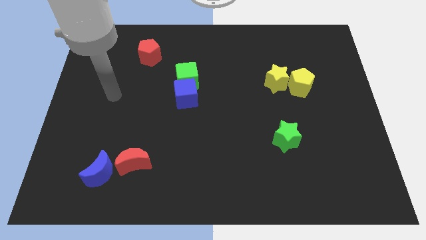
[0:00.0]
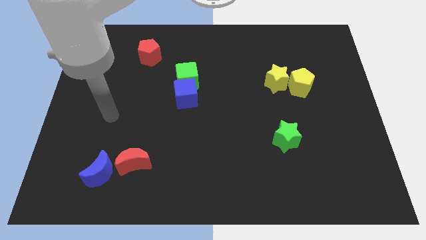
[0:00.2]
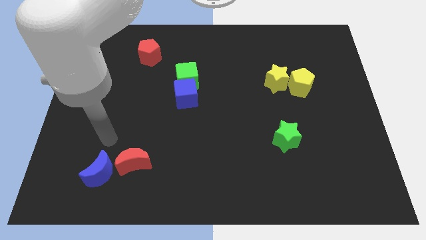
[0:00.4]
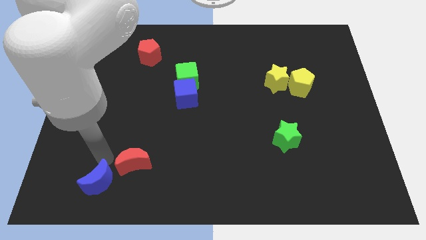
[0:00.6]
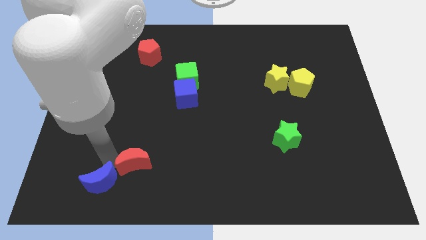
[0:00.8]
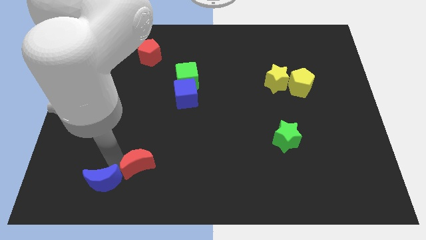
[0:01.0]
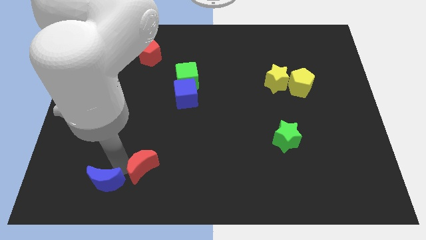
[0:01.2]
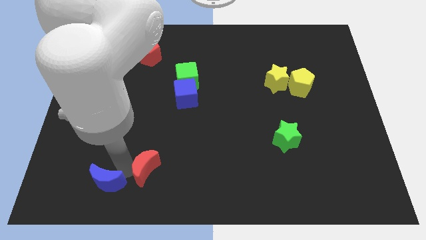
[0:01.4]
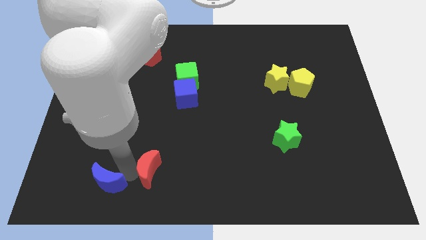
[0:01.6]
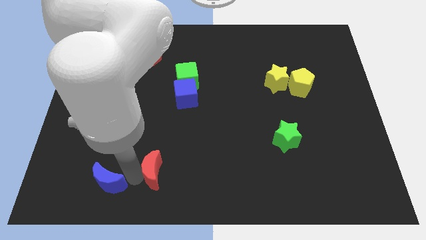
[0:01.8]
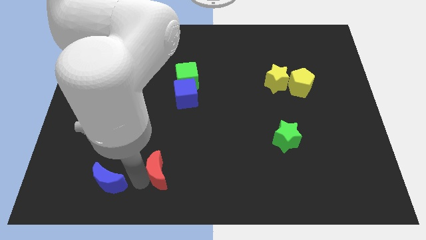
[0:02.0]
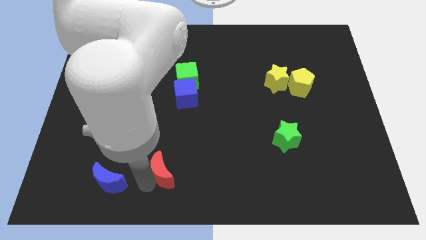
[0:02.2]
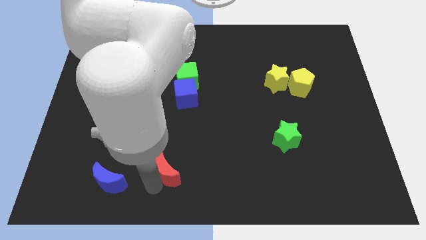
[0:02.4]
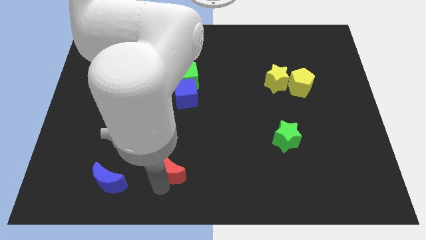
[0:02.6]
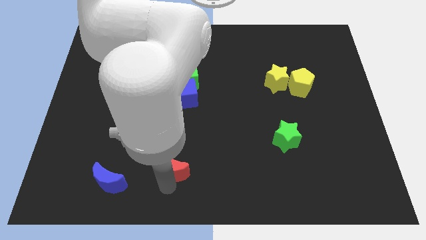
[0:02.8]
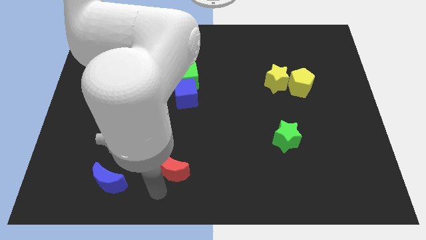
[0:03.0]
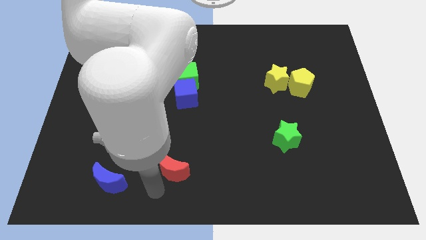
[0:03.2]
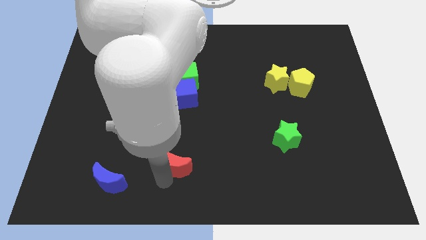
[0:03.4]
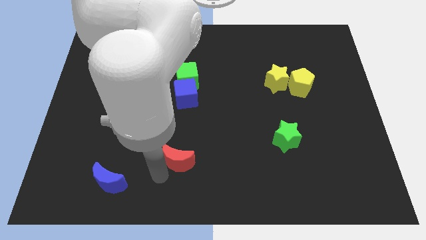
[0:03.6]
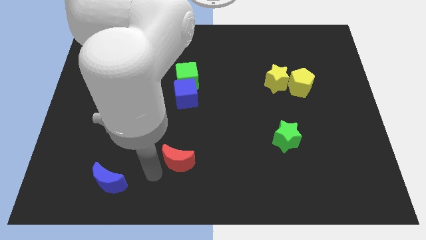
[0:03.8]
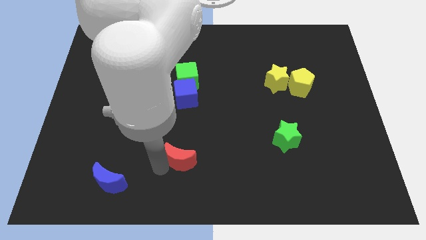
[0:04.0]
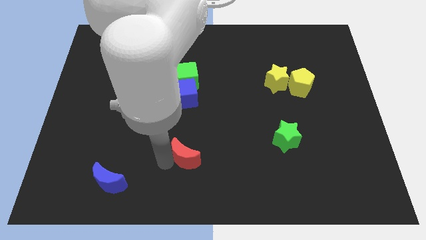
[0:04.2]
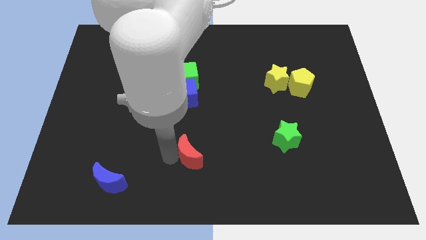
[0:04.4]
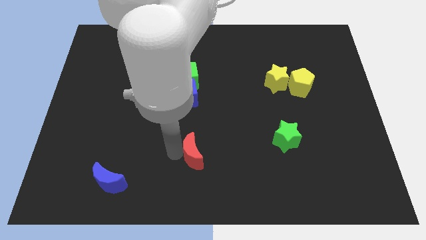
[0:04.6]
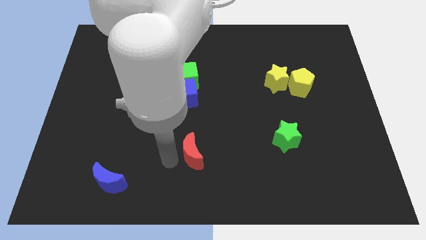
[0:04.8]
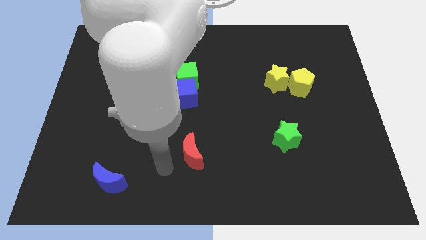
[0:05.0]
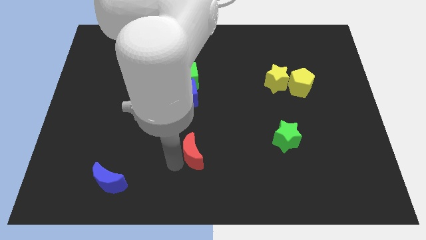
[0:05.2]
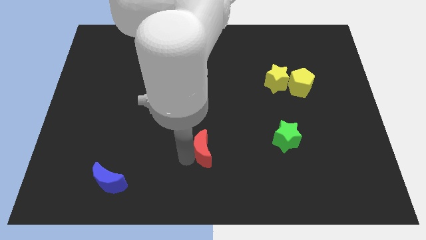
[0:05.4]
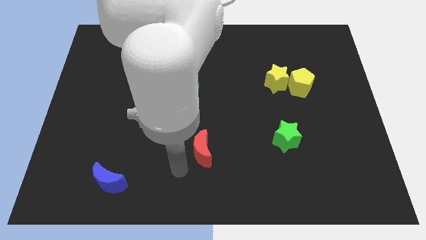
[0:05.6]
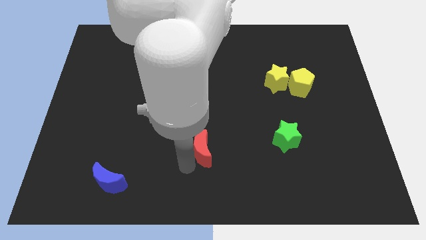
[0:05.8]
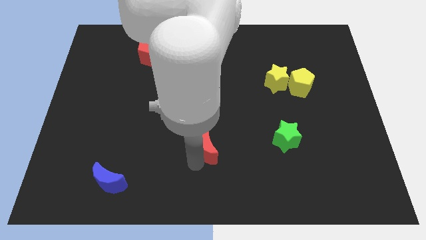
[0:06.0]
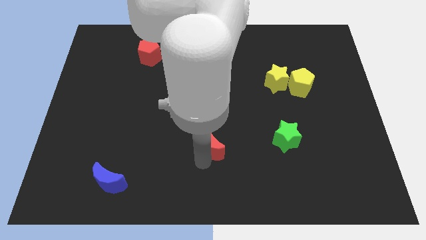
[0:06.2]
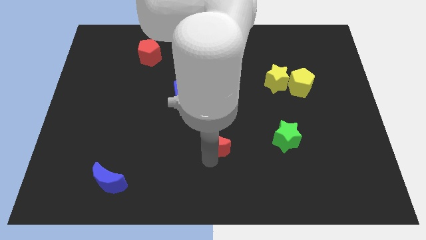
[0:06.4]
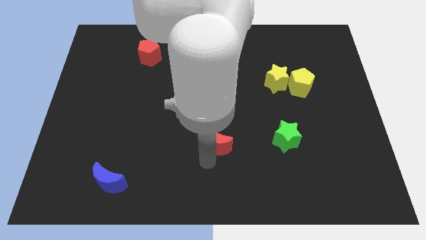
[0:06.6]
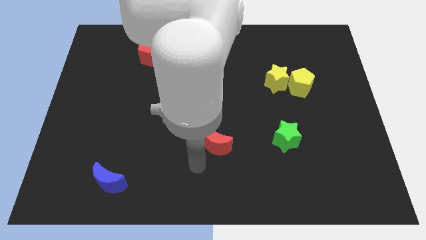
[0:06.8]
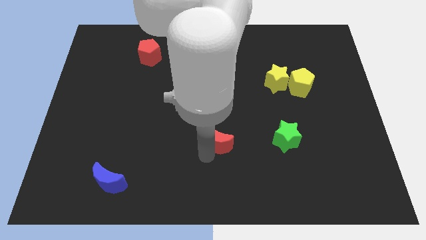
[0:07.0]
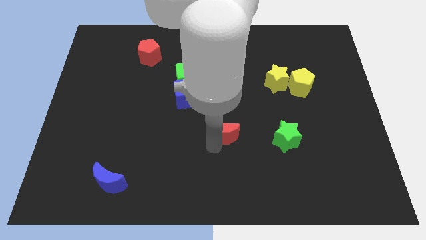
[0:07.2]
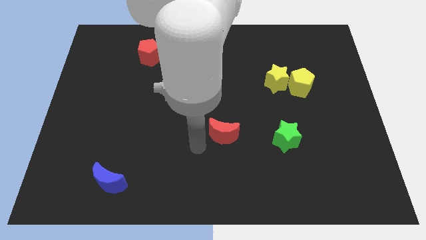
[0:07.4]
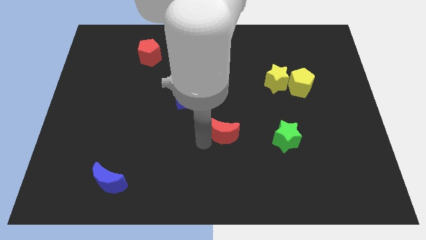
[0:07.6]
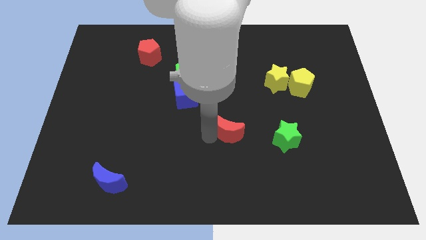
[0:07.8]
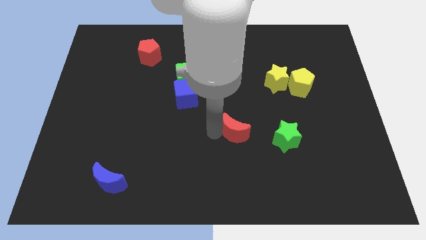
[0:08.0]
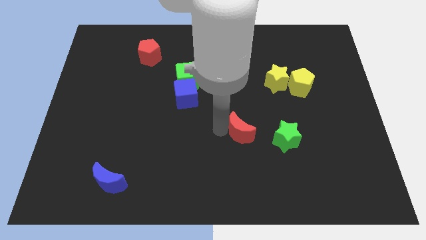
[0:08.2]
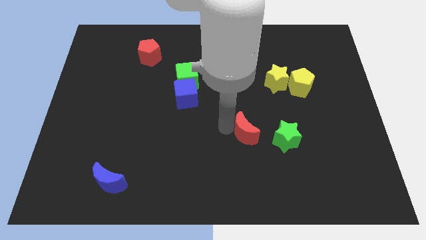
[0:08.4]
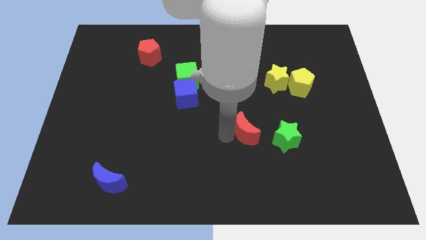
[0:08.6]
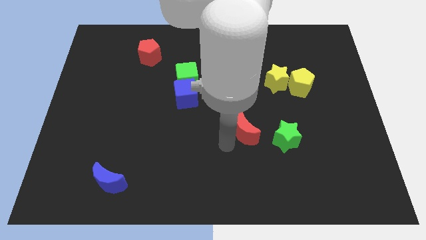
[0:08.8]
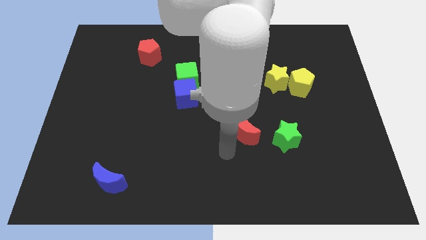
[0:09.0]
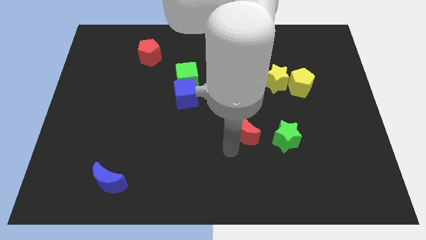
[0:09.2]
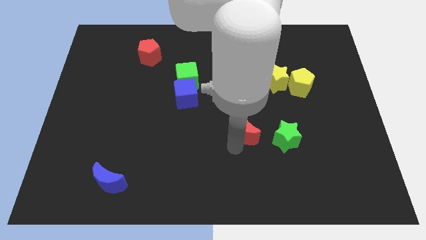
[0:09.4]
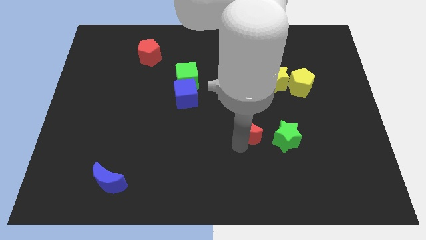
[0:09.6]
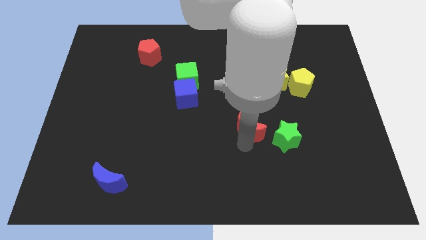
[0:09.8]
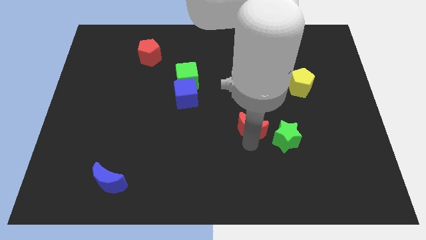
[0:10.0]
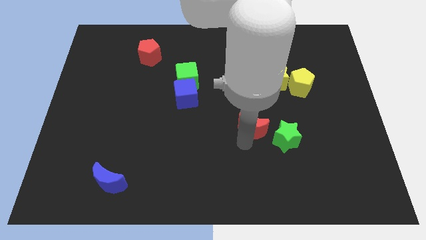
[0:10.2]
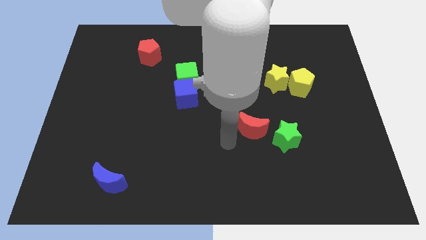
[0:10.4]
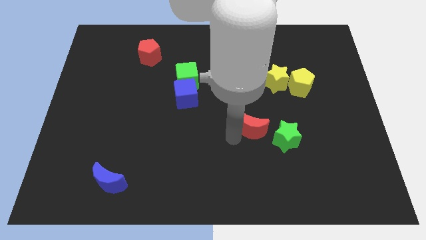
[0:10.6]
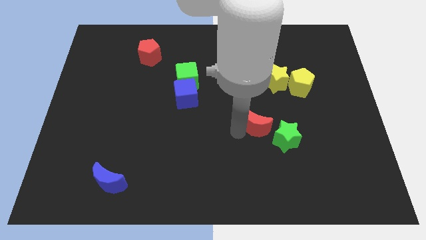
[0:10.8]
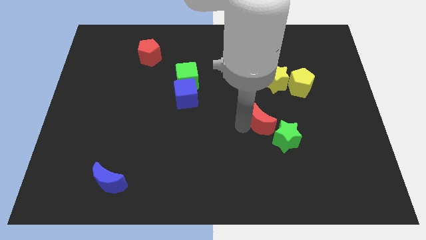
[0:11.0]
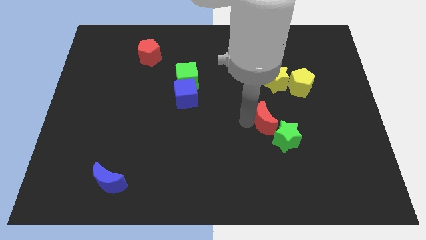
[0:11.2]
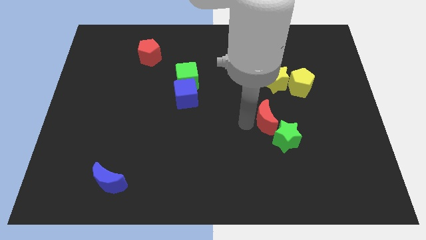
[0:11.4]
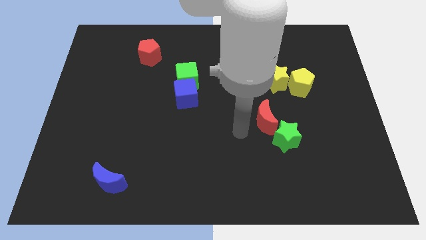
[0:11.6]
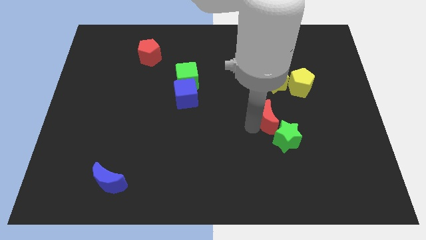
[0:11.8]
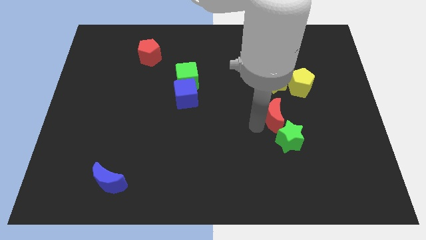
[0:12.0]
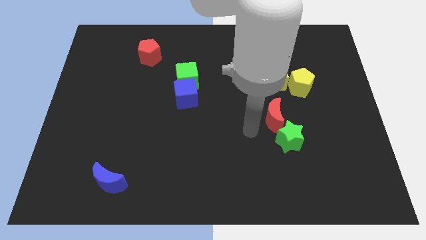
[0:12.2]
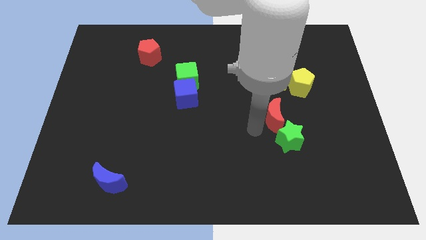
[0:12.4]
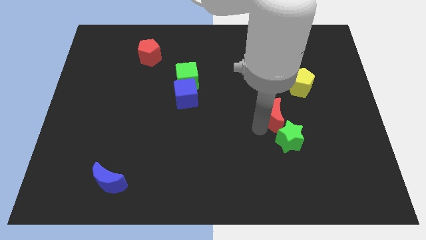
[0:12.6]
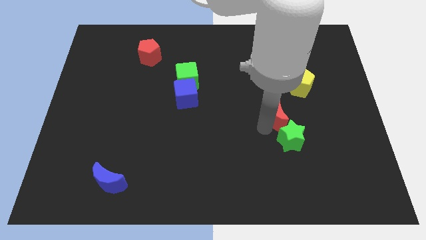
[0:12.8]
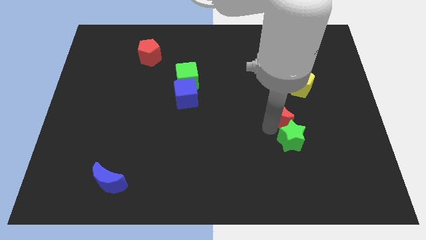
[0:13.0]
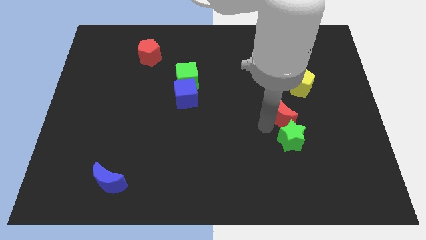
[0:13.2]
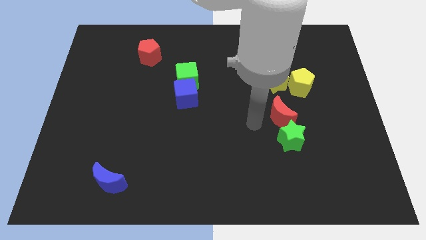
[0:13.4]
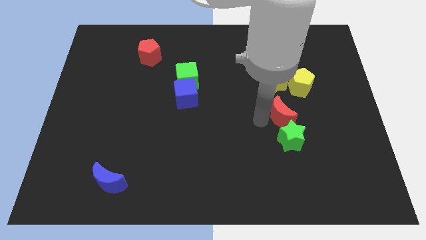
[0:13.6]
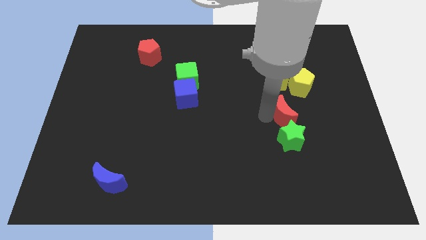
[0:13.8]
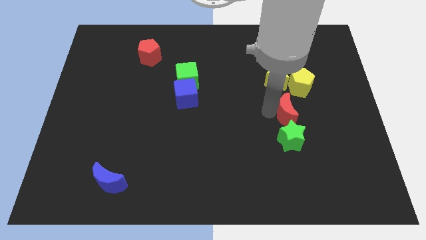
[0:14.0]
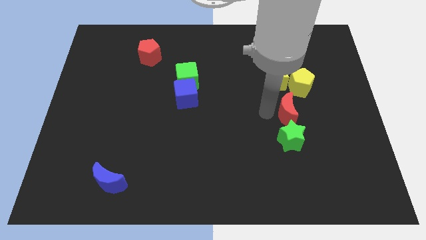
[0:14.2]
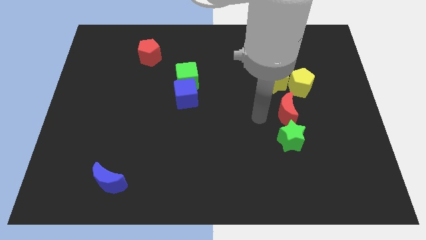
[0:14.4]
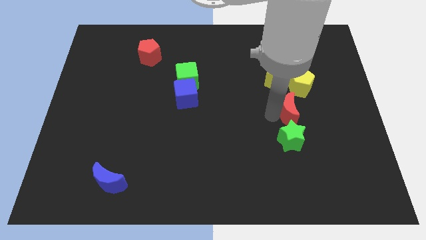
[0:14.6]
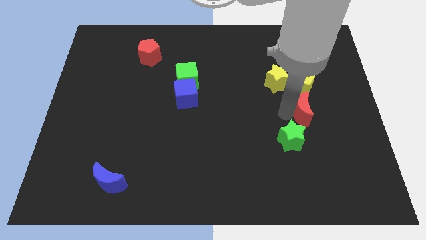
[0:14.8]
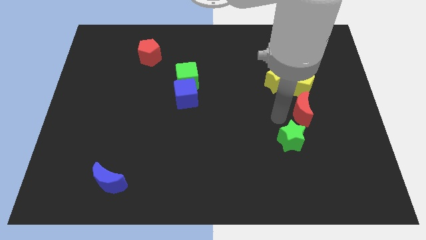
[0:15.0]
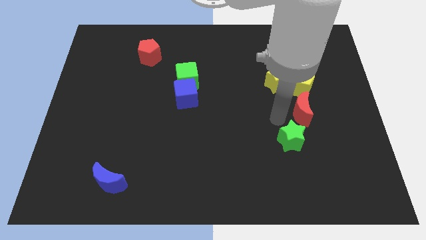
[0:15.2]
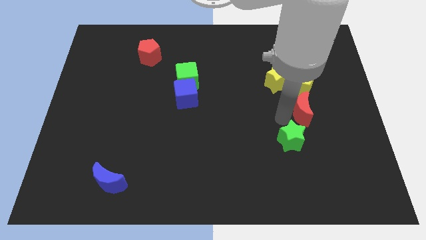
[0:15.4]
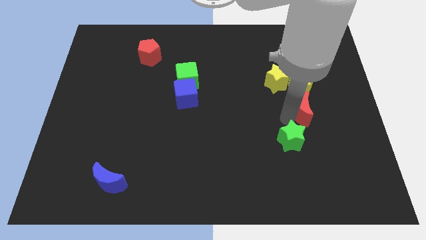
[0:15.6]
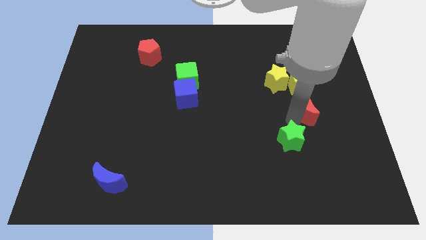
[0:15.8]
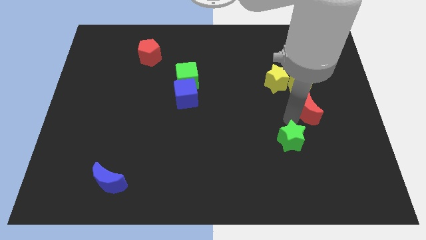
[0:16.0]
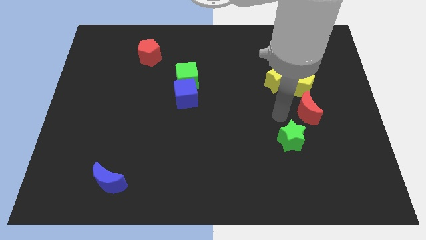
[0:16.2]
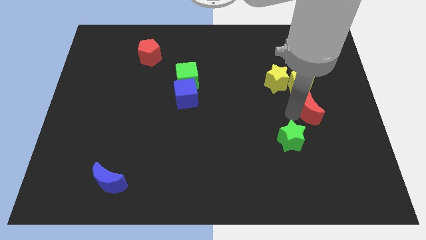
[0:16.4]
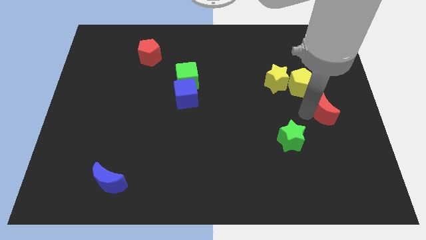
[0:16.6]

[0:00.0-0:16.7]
put the red moon to the right side of the board
